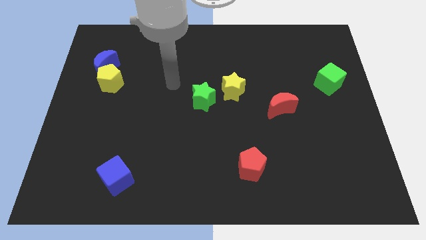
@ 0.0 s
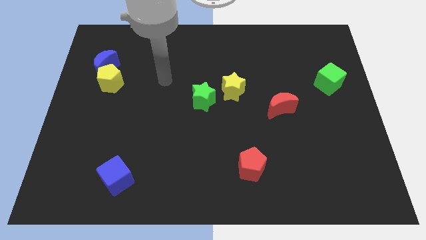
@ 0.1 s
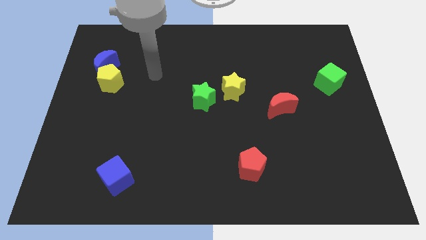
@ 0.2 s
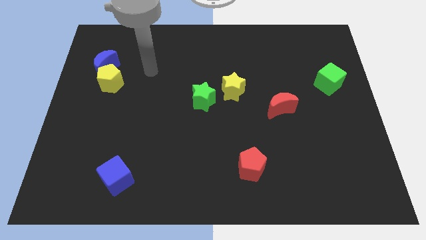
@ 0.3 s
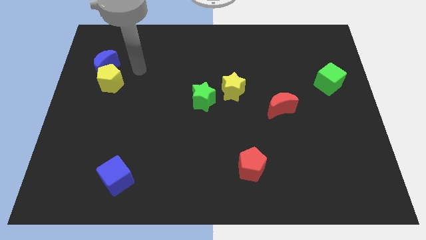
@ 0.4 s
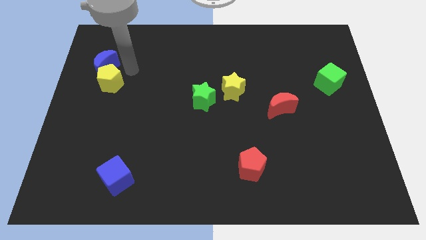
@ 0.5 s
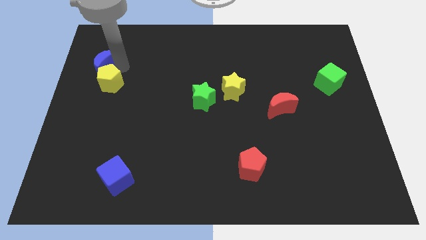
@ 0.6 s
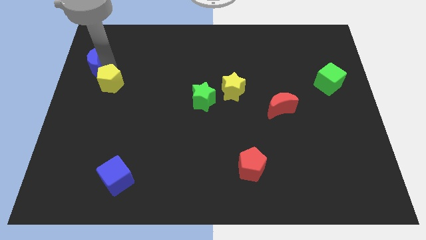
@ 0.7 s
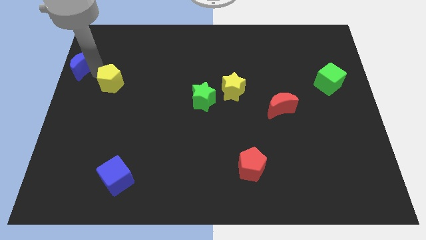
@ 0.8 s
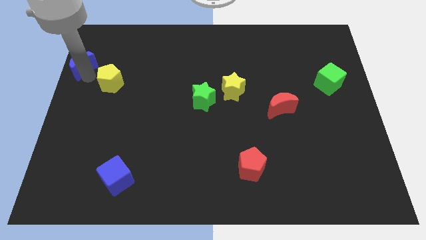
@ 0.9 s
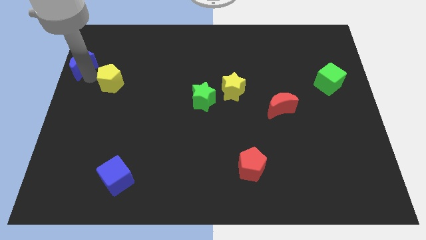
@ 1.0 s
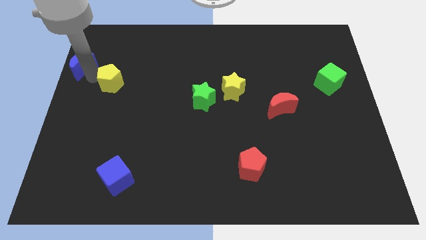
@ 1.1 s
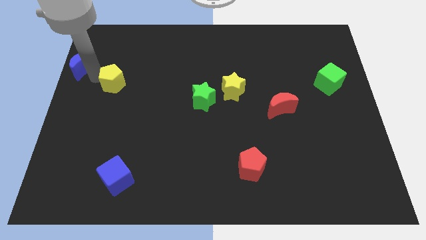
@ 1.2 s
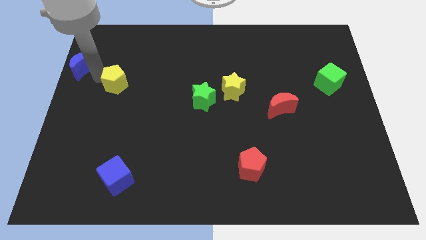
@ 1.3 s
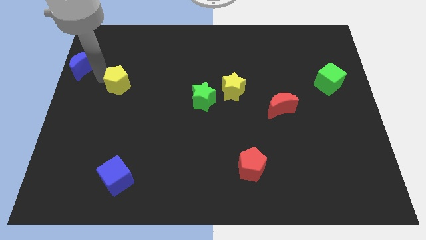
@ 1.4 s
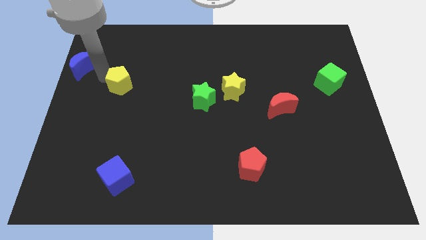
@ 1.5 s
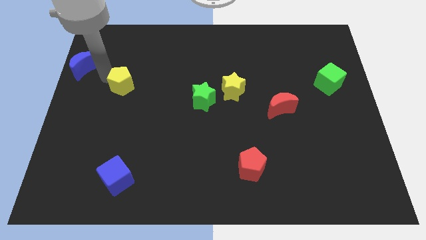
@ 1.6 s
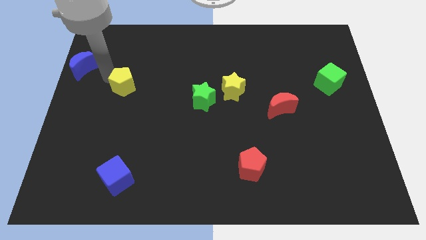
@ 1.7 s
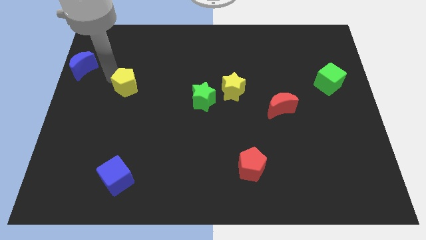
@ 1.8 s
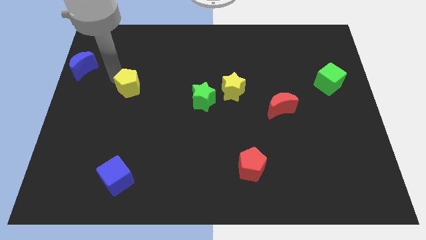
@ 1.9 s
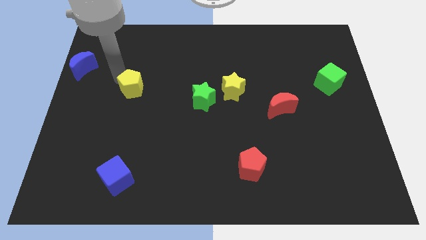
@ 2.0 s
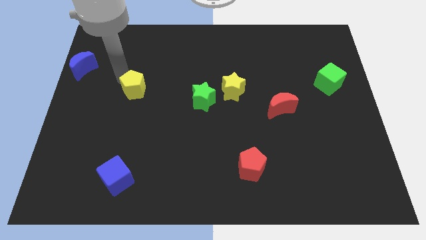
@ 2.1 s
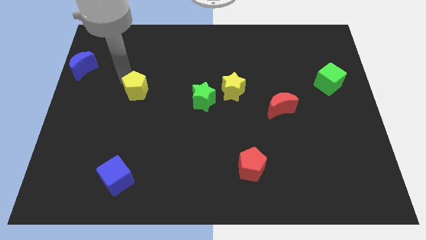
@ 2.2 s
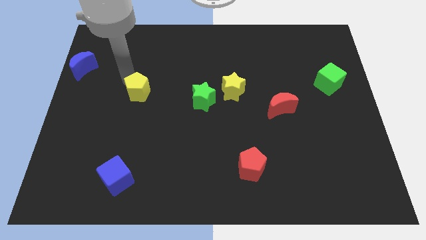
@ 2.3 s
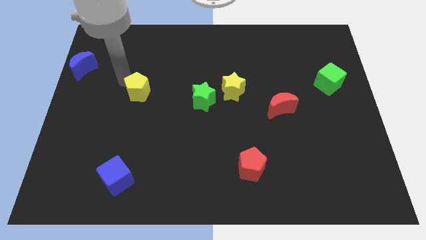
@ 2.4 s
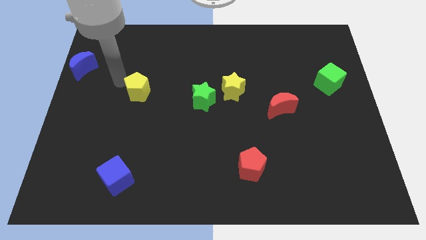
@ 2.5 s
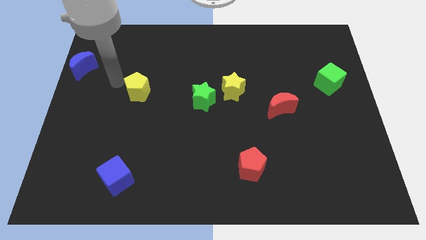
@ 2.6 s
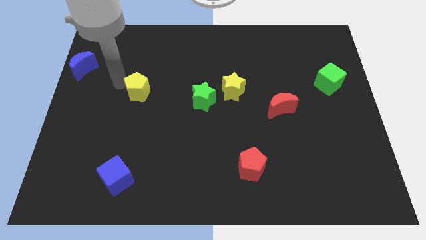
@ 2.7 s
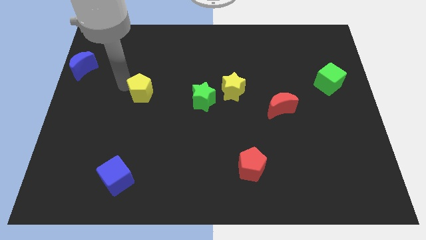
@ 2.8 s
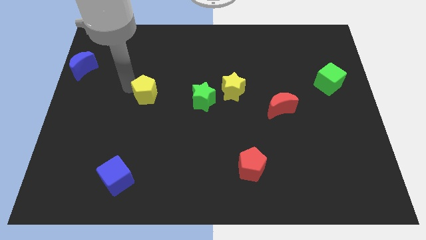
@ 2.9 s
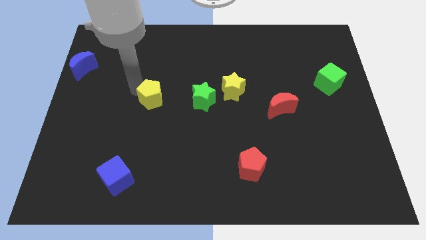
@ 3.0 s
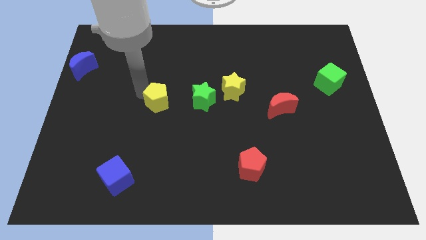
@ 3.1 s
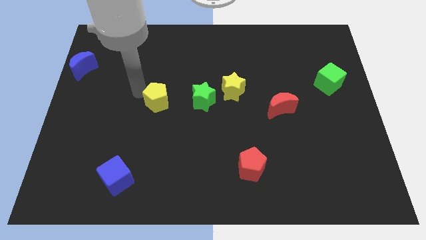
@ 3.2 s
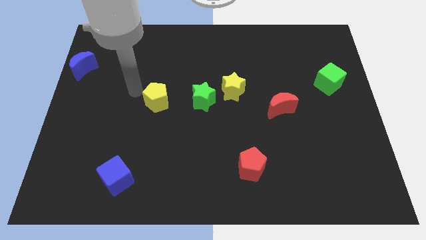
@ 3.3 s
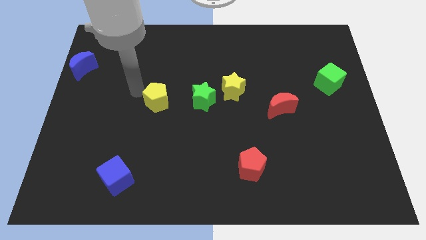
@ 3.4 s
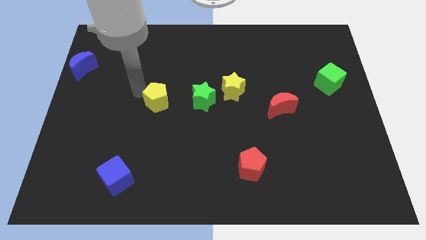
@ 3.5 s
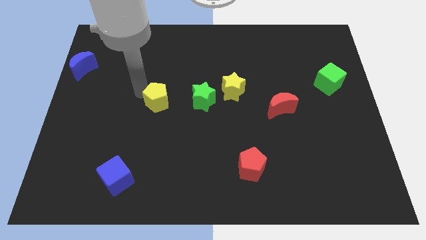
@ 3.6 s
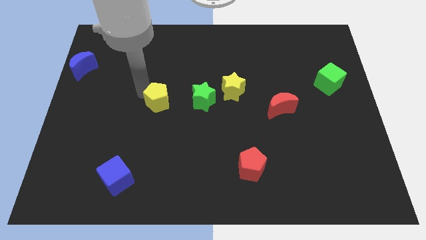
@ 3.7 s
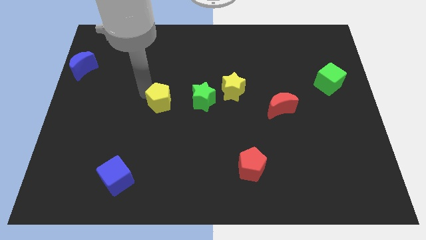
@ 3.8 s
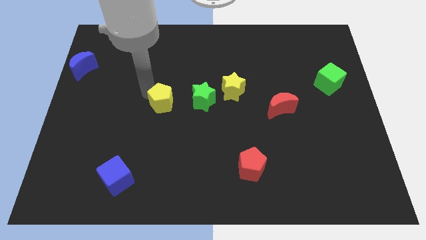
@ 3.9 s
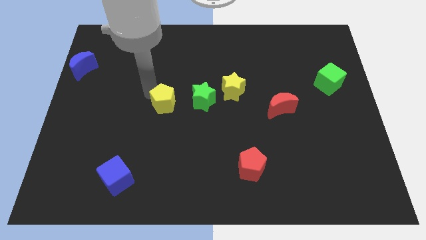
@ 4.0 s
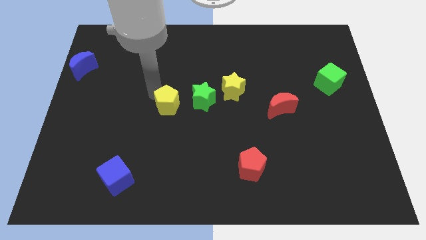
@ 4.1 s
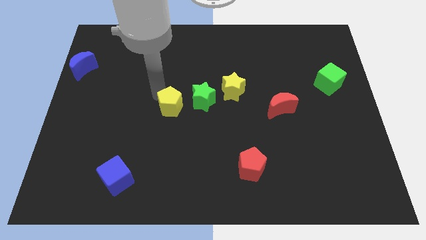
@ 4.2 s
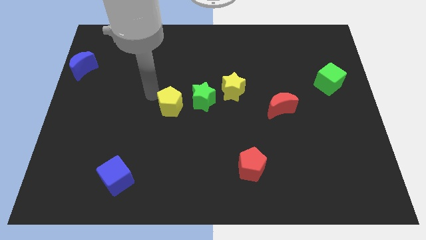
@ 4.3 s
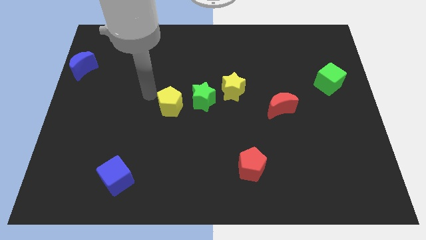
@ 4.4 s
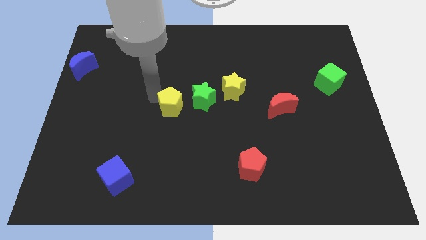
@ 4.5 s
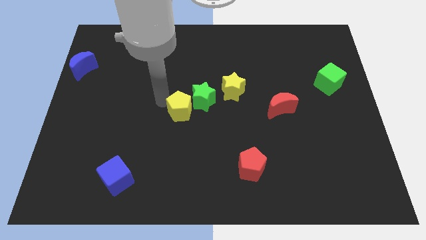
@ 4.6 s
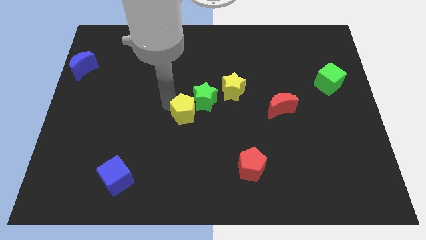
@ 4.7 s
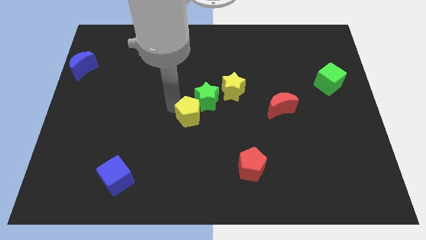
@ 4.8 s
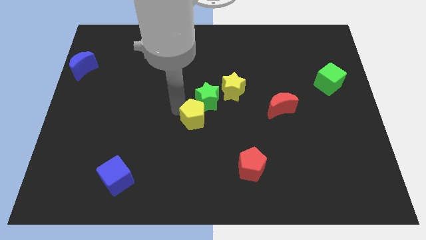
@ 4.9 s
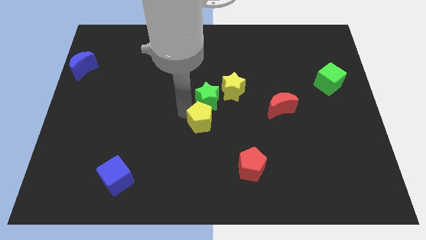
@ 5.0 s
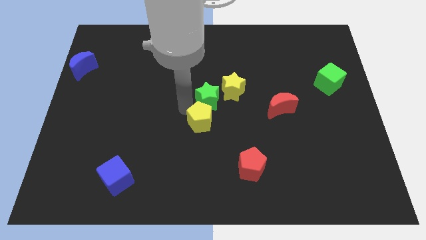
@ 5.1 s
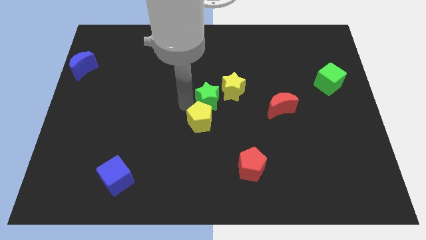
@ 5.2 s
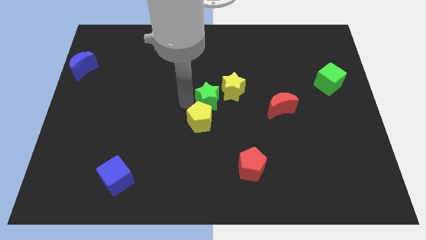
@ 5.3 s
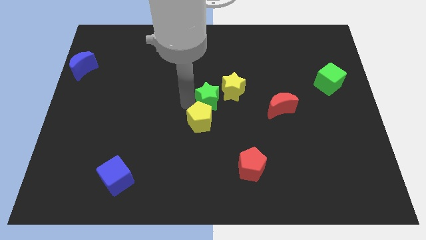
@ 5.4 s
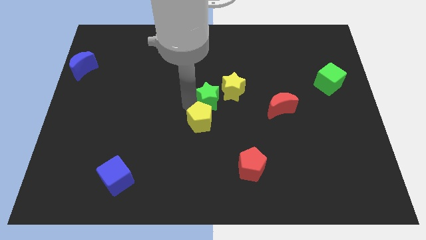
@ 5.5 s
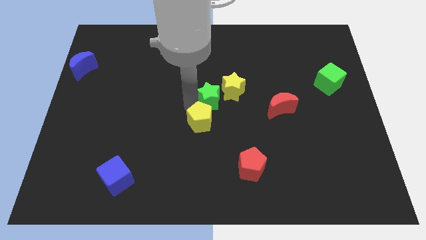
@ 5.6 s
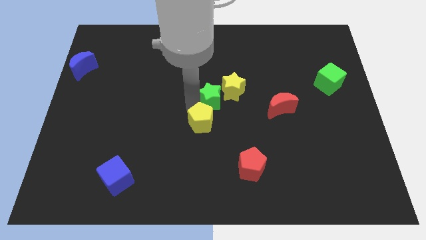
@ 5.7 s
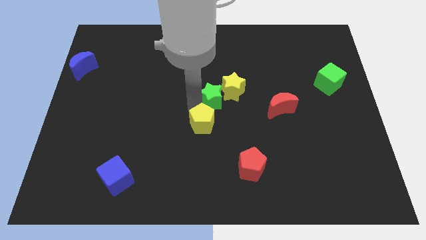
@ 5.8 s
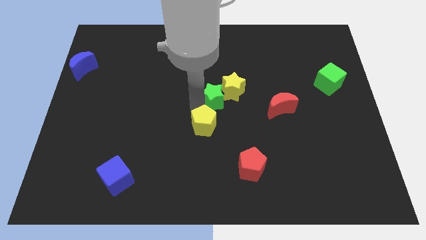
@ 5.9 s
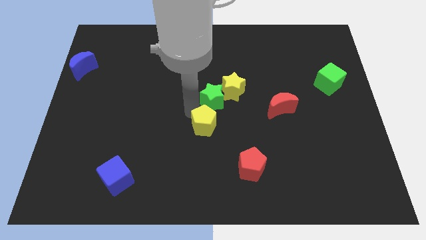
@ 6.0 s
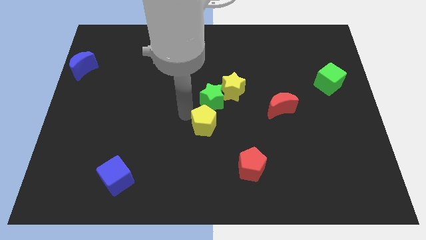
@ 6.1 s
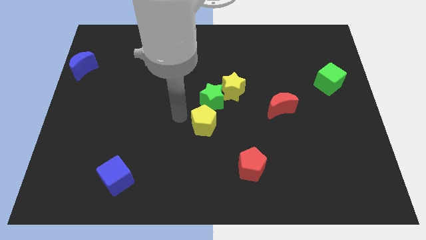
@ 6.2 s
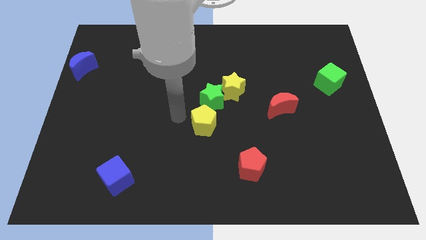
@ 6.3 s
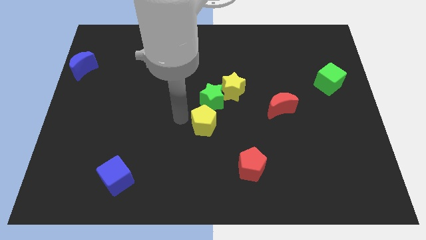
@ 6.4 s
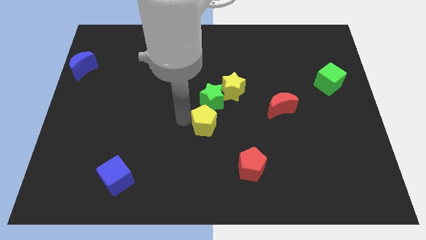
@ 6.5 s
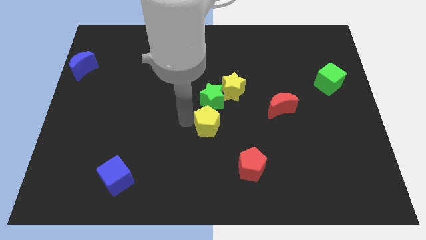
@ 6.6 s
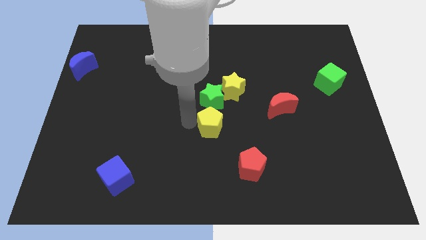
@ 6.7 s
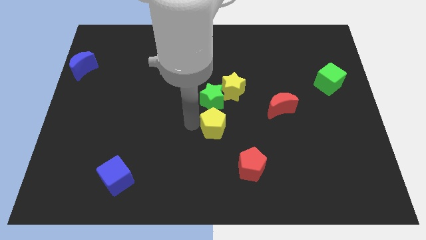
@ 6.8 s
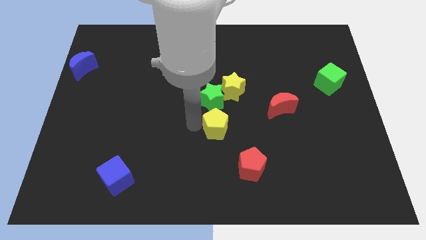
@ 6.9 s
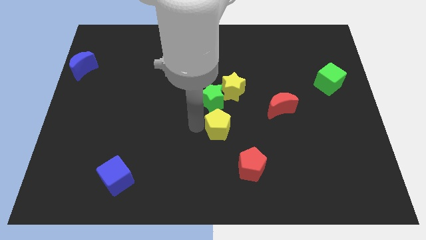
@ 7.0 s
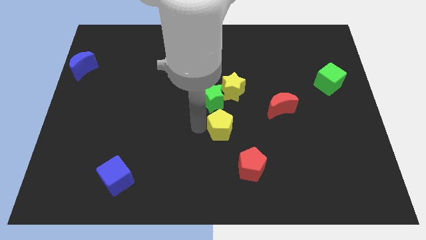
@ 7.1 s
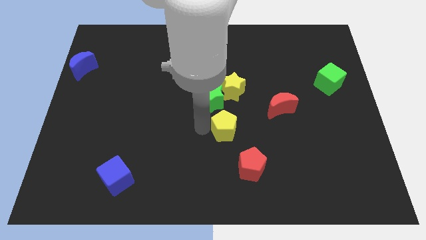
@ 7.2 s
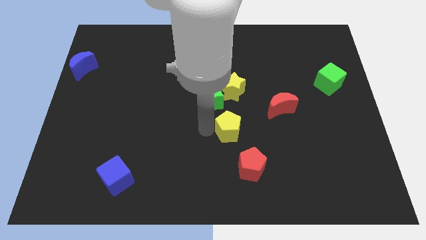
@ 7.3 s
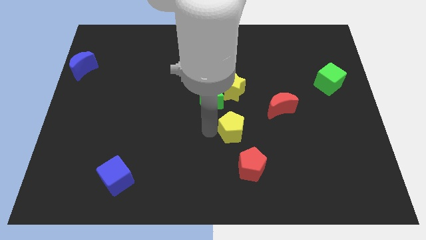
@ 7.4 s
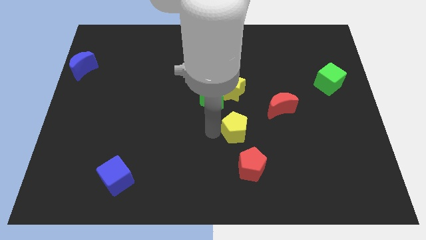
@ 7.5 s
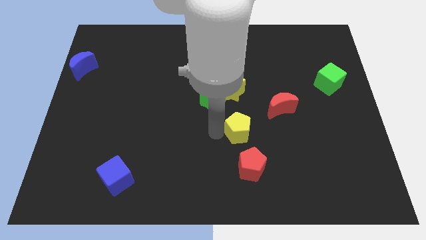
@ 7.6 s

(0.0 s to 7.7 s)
put the yellow pentagon to the bottom left of the red moon
